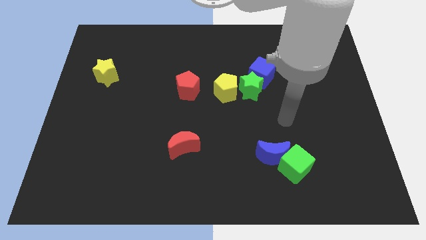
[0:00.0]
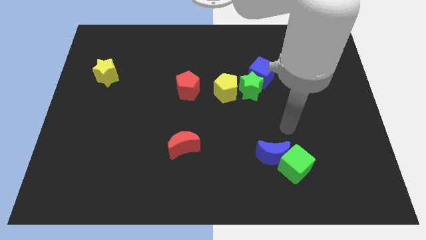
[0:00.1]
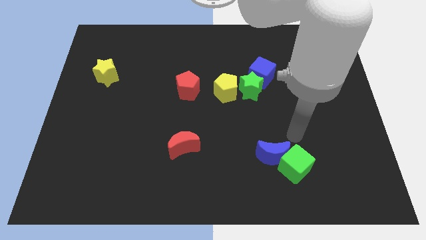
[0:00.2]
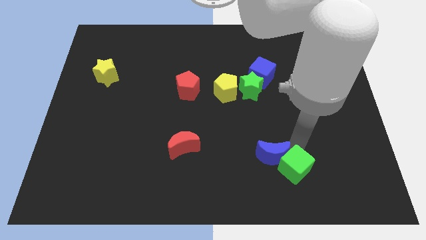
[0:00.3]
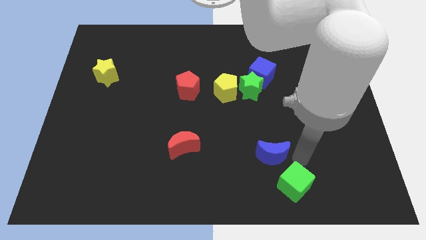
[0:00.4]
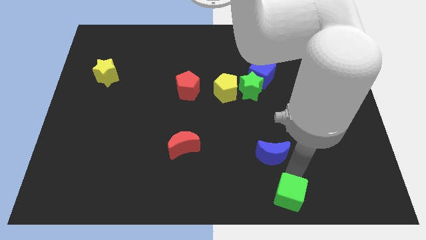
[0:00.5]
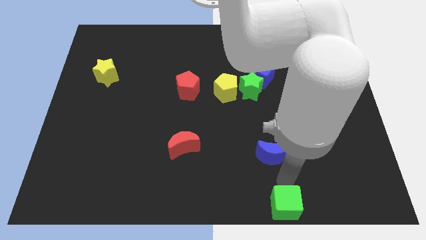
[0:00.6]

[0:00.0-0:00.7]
move the blue moon away from the green cube

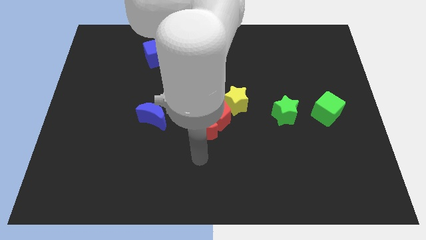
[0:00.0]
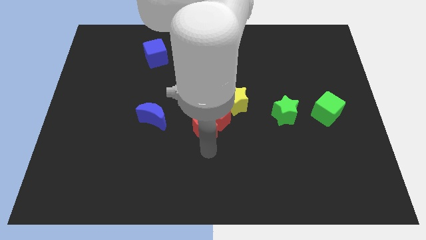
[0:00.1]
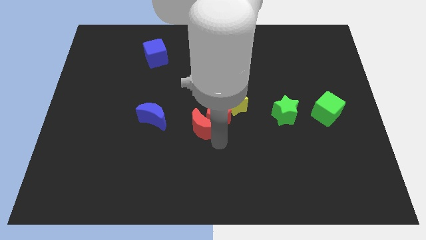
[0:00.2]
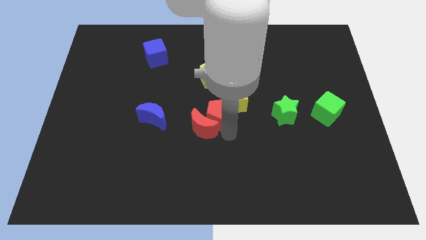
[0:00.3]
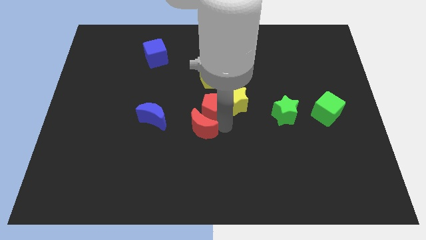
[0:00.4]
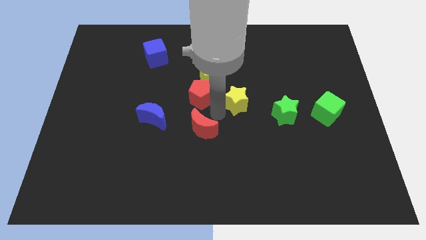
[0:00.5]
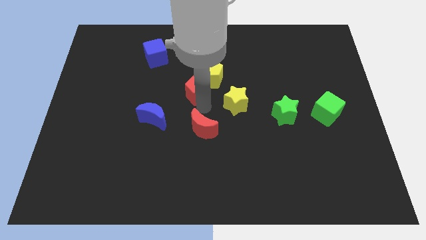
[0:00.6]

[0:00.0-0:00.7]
separate the red moon from the red pentagon

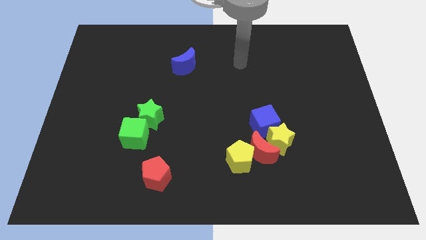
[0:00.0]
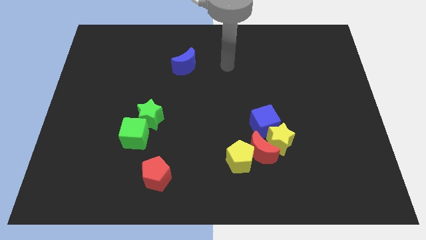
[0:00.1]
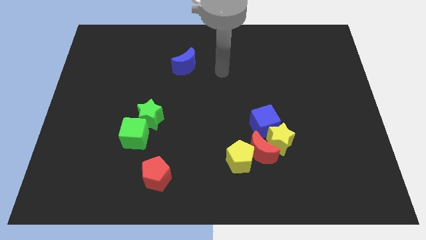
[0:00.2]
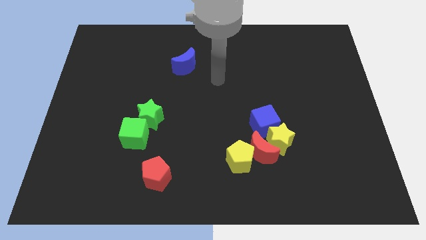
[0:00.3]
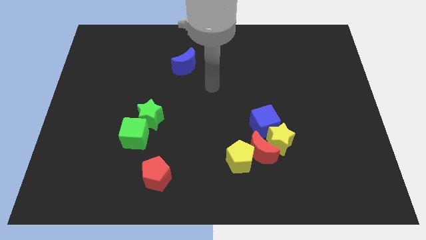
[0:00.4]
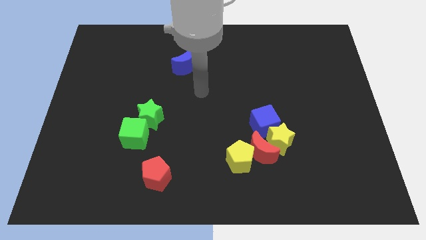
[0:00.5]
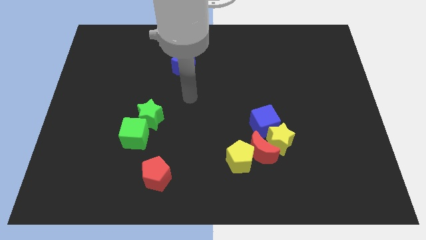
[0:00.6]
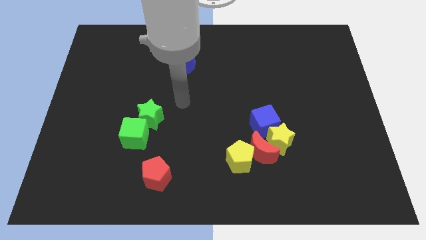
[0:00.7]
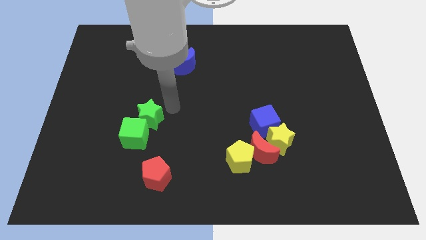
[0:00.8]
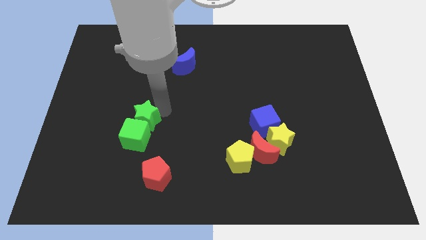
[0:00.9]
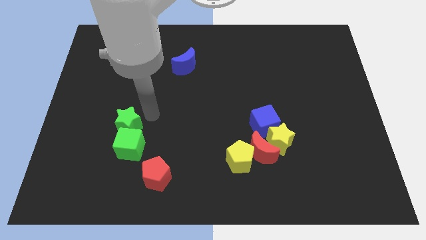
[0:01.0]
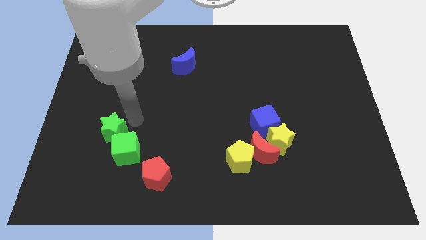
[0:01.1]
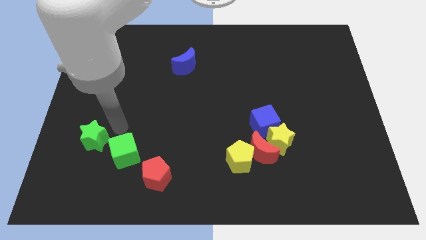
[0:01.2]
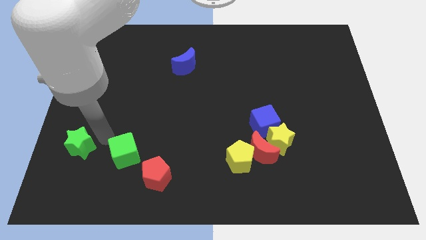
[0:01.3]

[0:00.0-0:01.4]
move the green cube away from the green star

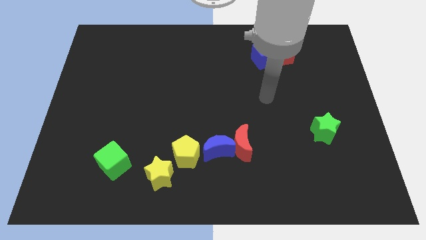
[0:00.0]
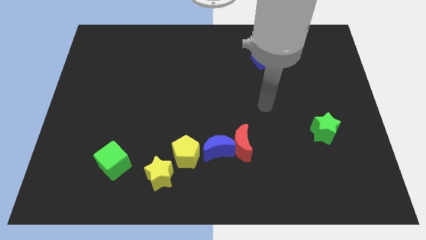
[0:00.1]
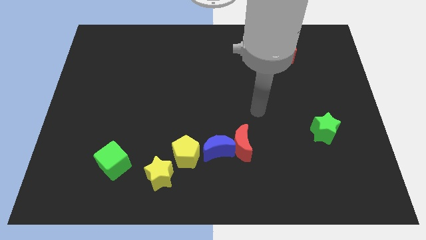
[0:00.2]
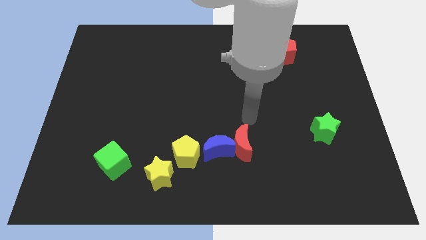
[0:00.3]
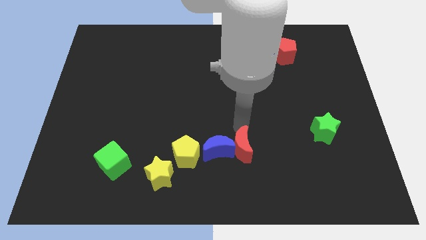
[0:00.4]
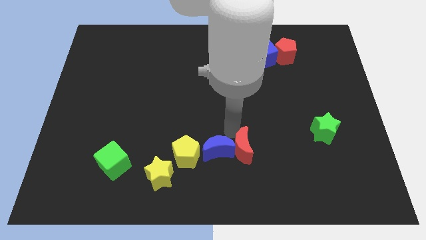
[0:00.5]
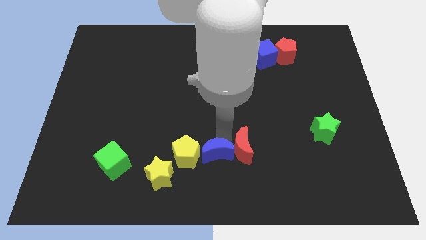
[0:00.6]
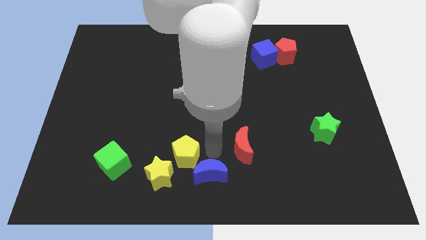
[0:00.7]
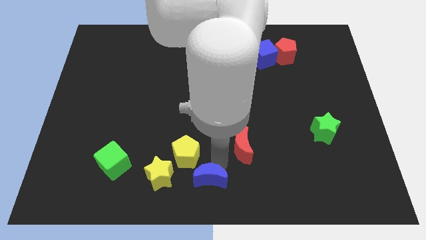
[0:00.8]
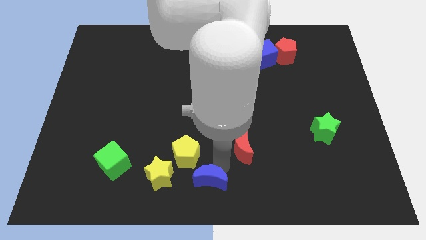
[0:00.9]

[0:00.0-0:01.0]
move the red moon away from the blue moon

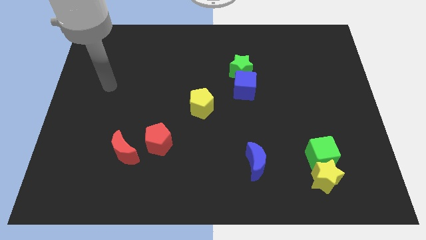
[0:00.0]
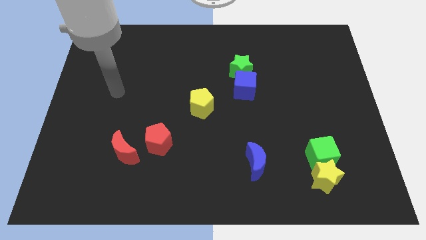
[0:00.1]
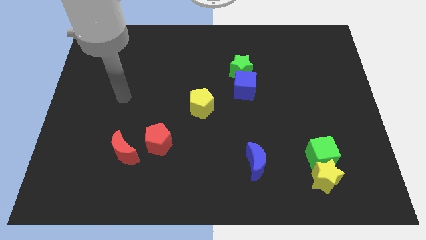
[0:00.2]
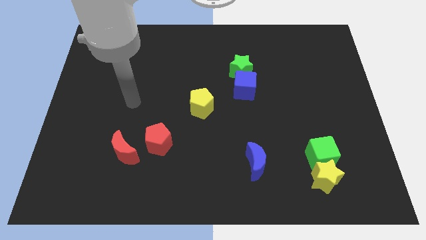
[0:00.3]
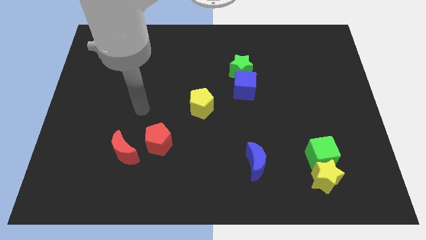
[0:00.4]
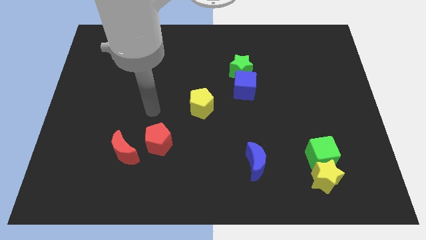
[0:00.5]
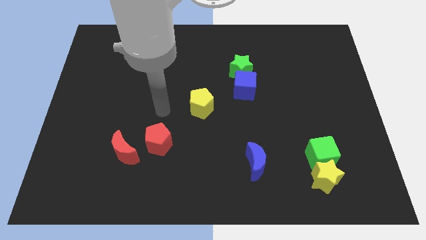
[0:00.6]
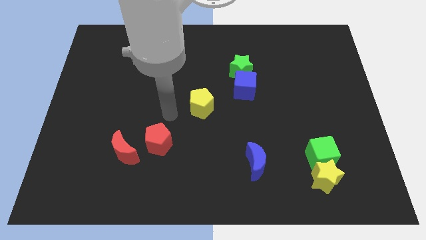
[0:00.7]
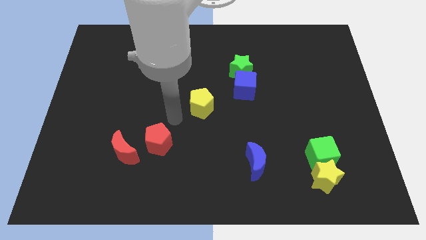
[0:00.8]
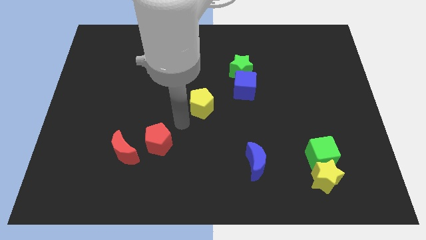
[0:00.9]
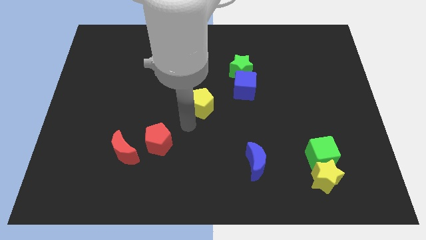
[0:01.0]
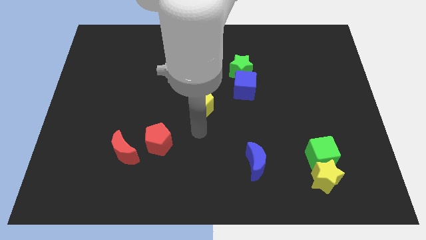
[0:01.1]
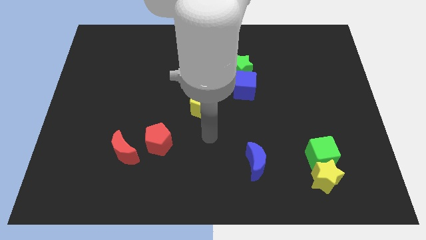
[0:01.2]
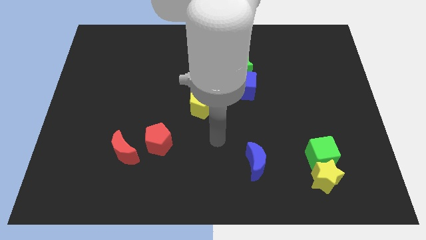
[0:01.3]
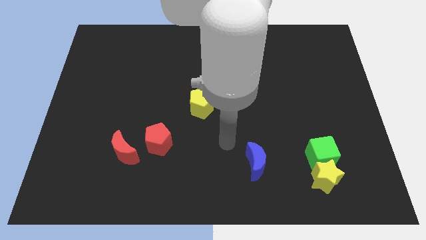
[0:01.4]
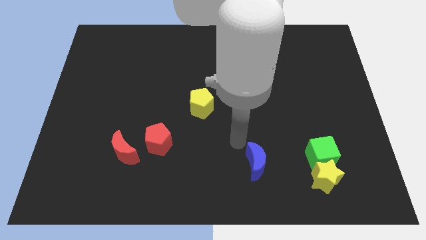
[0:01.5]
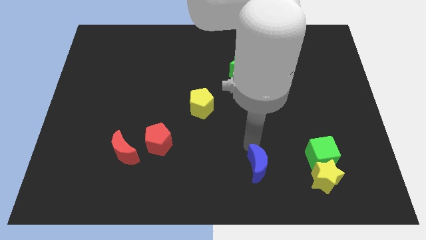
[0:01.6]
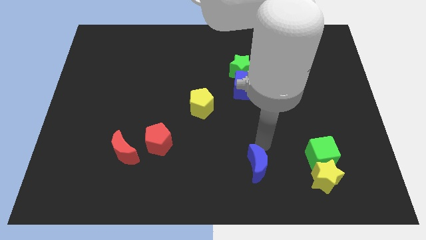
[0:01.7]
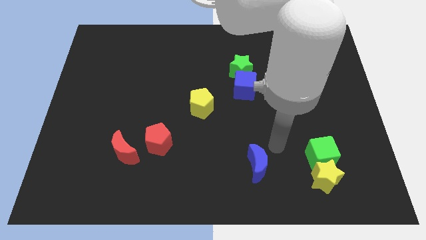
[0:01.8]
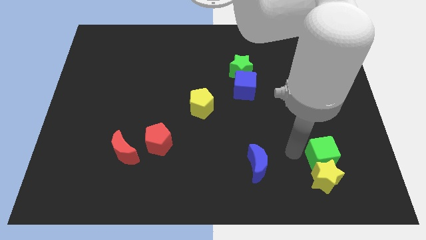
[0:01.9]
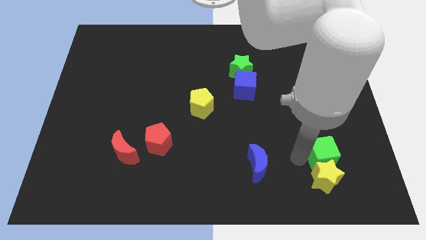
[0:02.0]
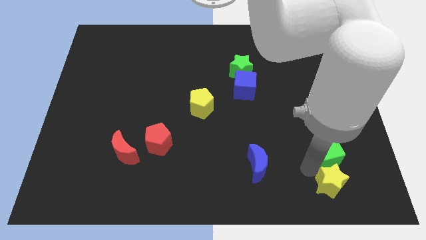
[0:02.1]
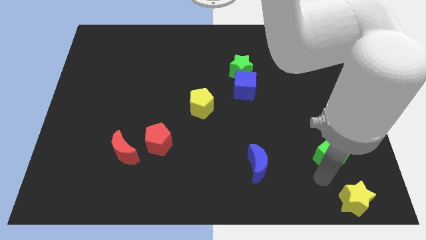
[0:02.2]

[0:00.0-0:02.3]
move the green cube away from the yellow star

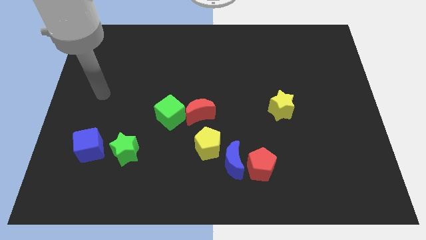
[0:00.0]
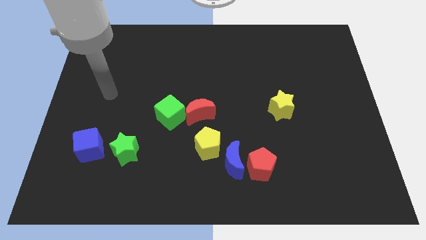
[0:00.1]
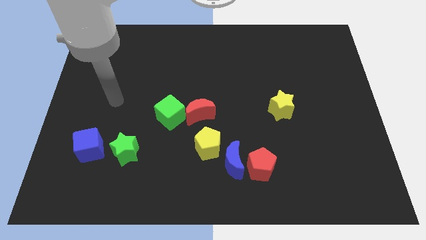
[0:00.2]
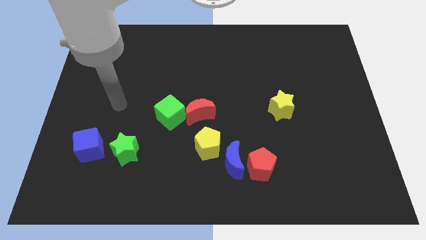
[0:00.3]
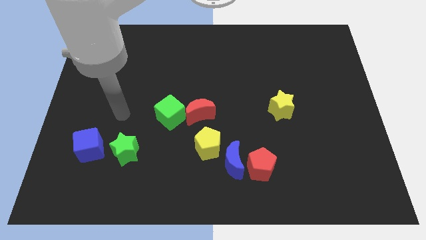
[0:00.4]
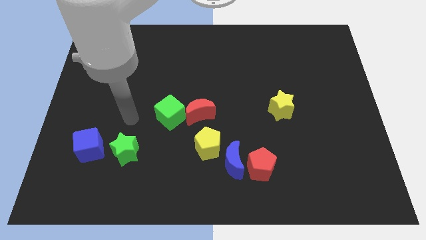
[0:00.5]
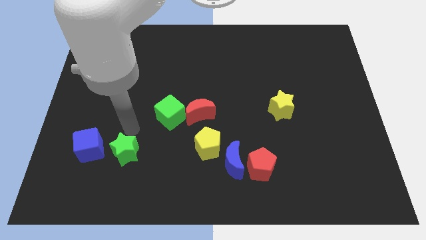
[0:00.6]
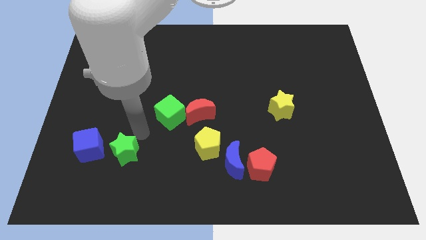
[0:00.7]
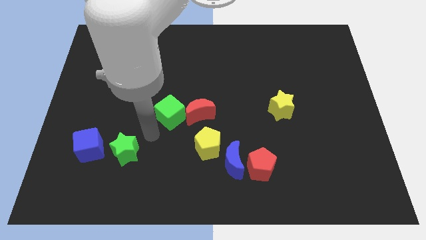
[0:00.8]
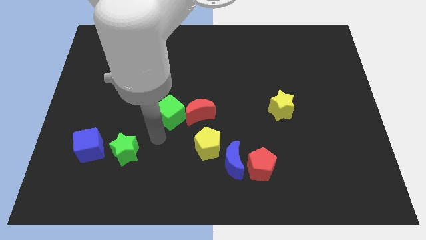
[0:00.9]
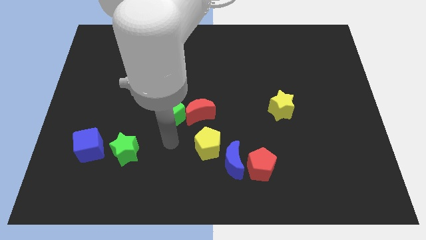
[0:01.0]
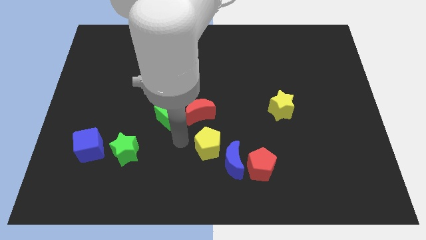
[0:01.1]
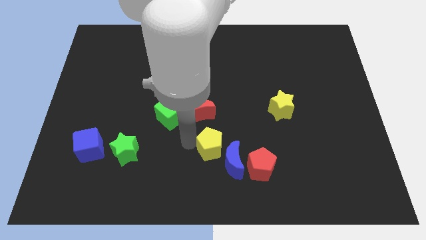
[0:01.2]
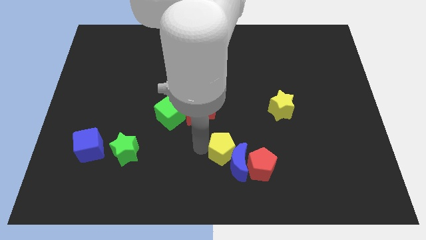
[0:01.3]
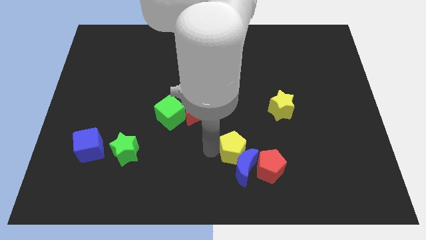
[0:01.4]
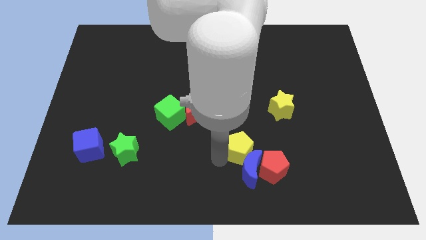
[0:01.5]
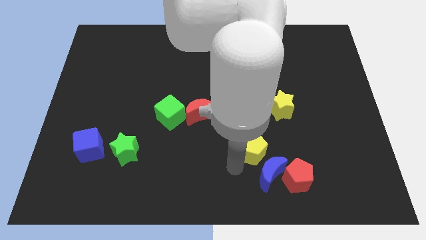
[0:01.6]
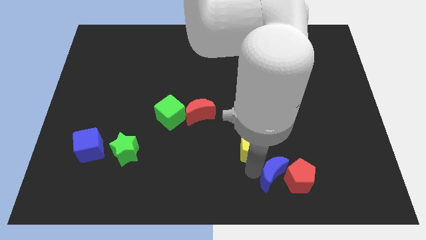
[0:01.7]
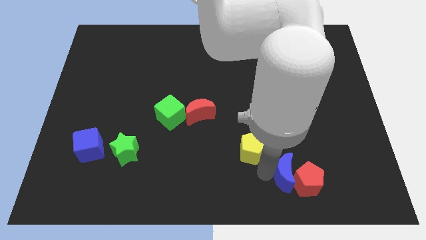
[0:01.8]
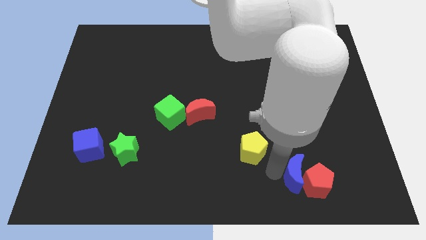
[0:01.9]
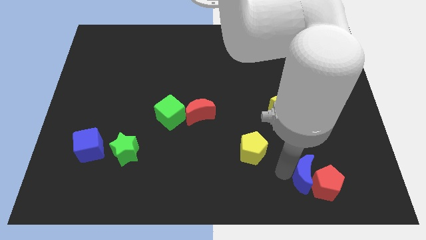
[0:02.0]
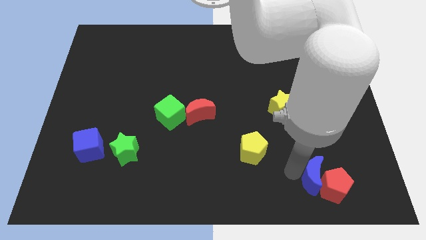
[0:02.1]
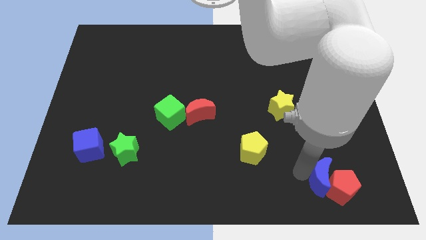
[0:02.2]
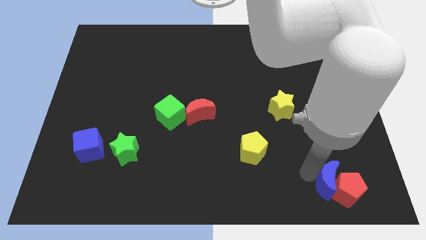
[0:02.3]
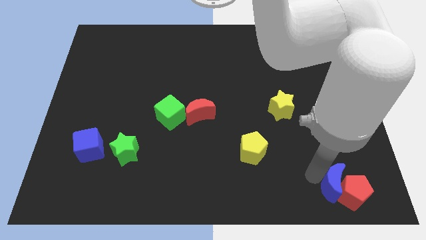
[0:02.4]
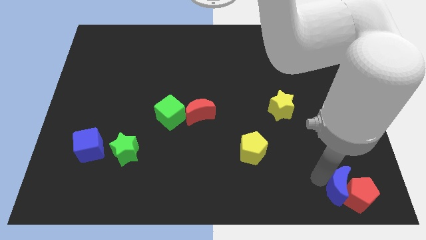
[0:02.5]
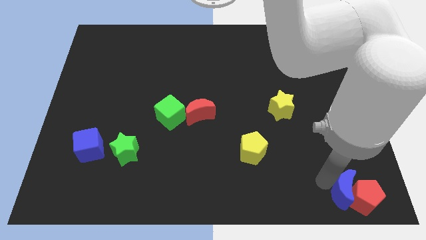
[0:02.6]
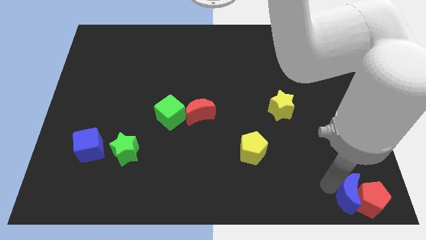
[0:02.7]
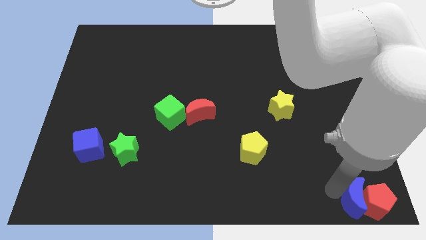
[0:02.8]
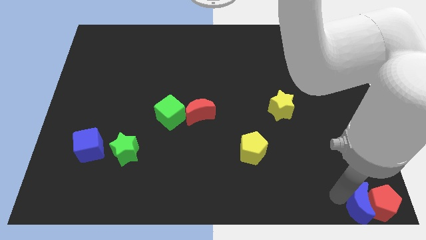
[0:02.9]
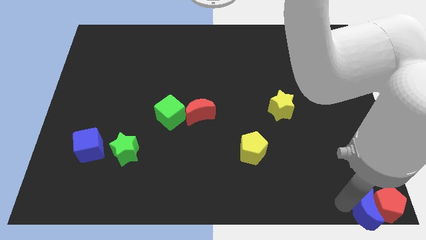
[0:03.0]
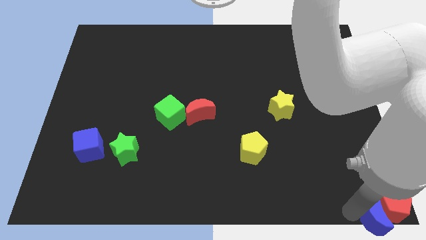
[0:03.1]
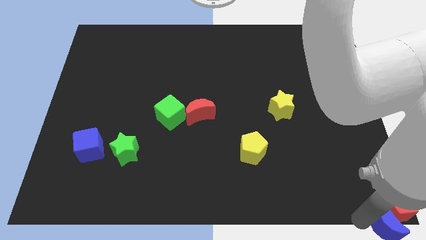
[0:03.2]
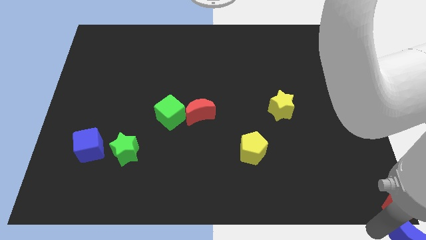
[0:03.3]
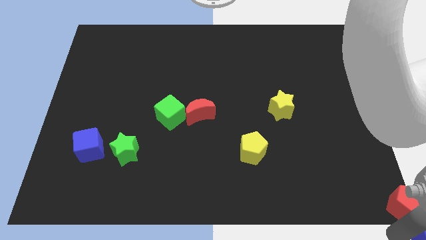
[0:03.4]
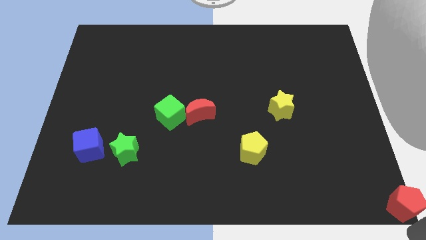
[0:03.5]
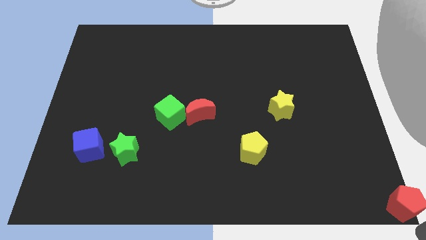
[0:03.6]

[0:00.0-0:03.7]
separate the red pentagon from the blue moon
